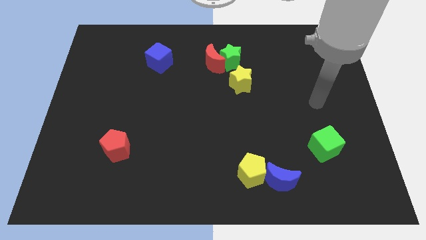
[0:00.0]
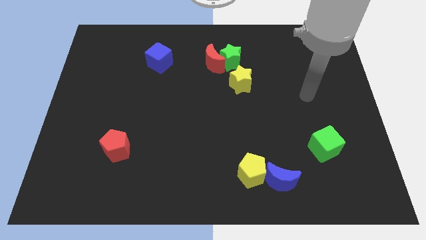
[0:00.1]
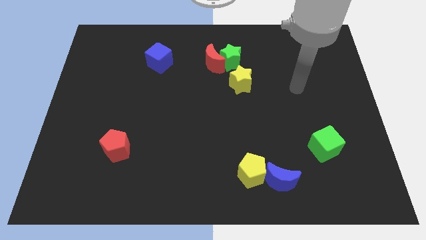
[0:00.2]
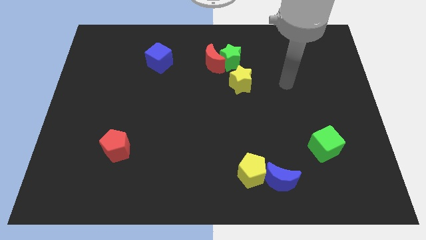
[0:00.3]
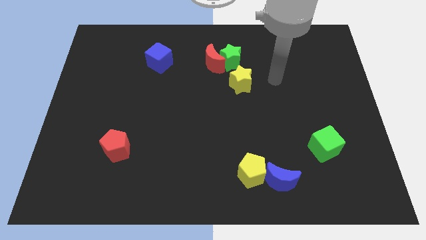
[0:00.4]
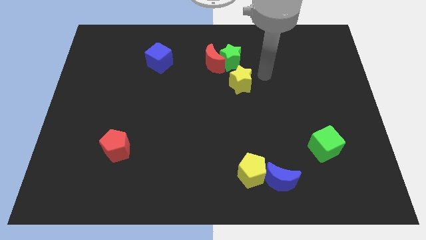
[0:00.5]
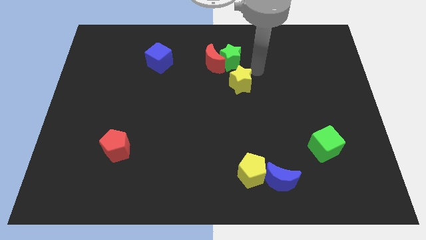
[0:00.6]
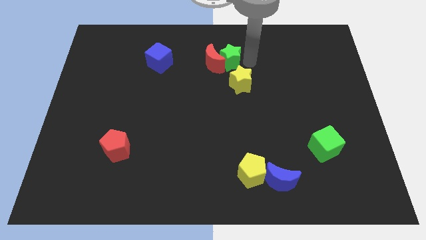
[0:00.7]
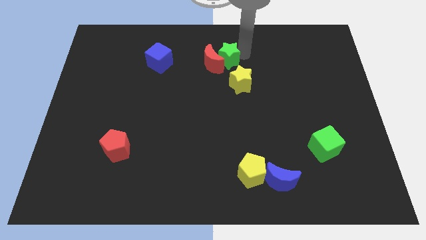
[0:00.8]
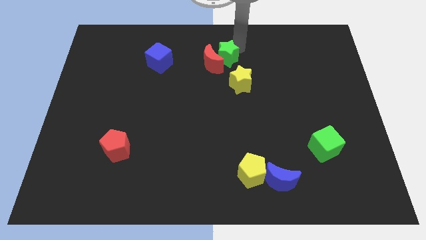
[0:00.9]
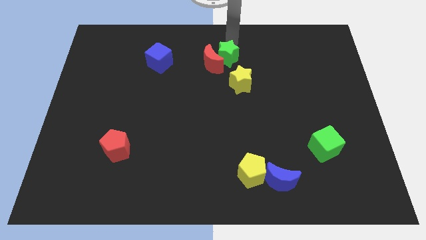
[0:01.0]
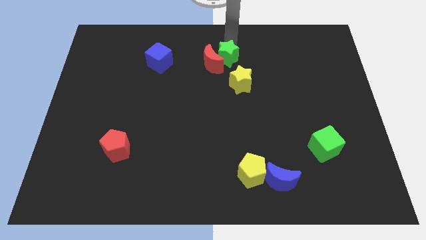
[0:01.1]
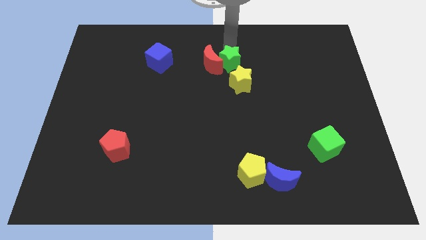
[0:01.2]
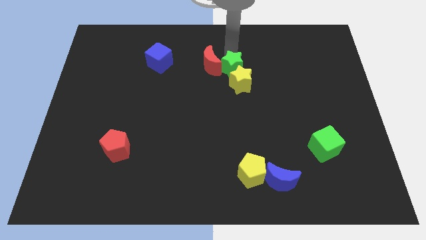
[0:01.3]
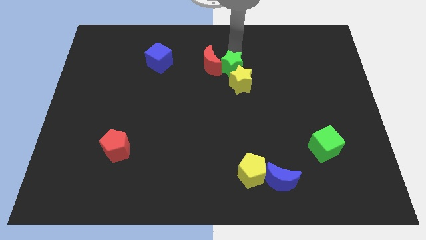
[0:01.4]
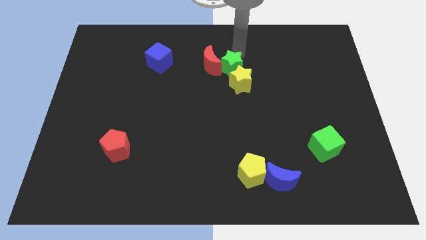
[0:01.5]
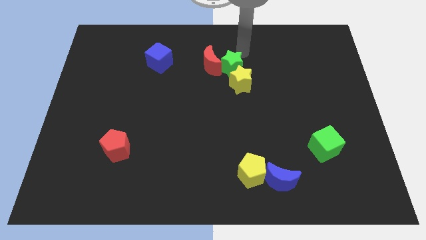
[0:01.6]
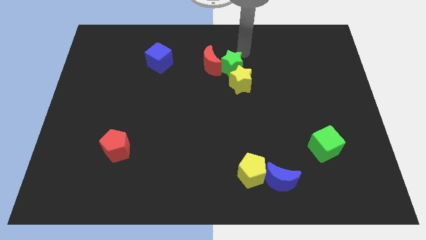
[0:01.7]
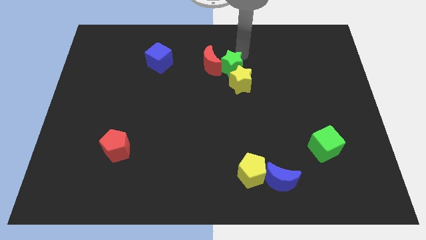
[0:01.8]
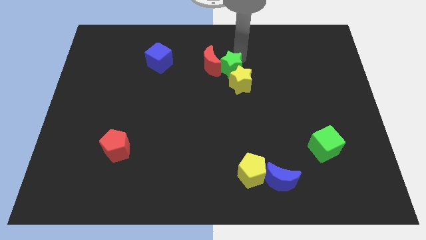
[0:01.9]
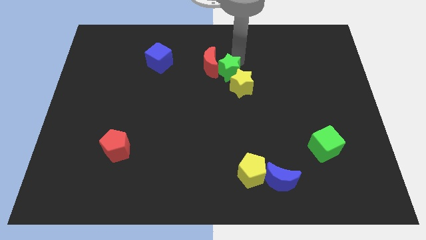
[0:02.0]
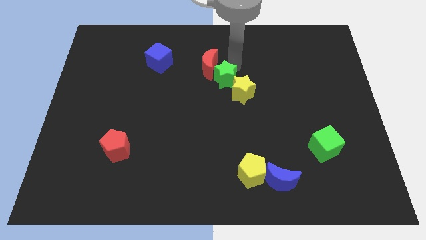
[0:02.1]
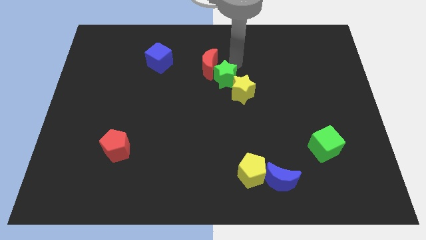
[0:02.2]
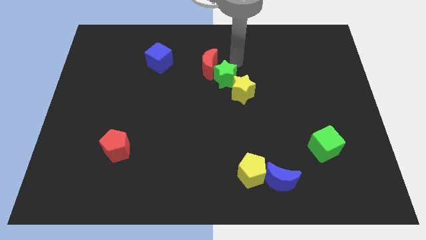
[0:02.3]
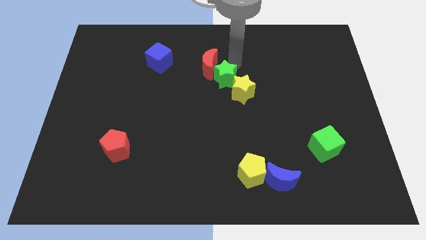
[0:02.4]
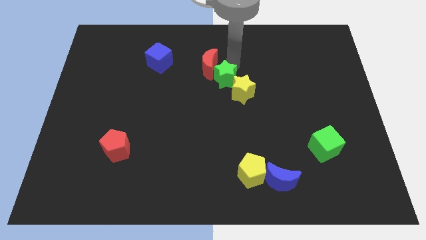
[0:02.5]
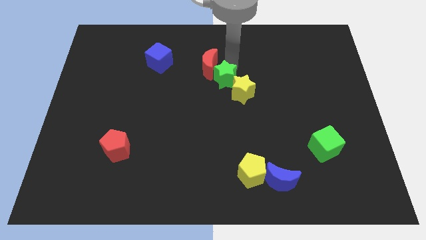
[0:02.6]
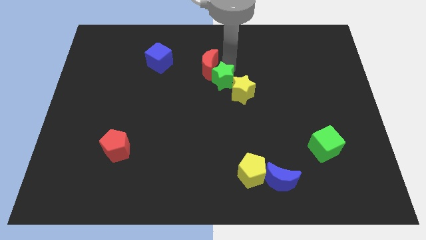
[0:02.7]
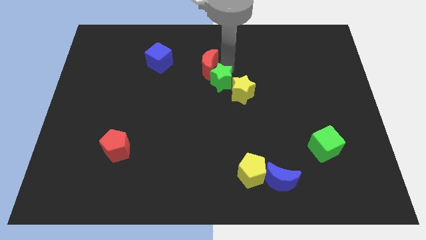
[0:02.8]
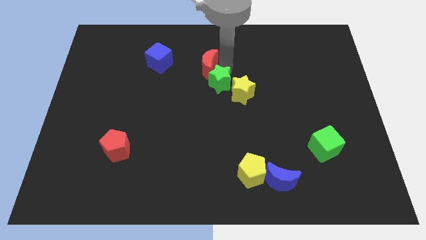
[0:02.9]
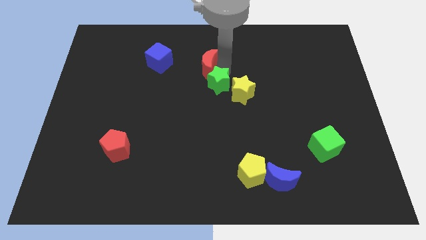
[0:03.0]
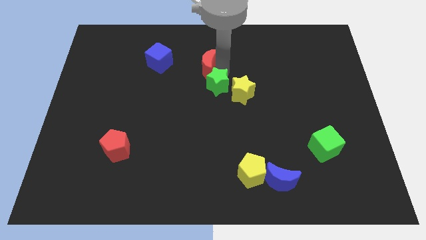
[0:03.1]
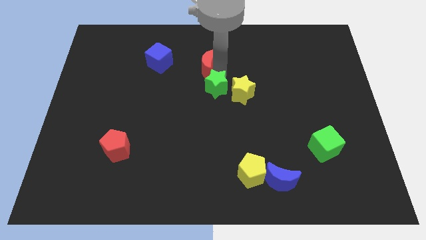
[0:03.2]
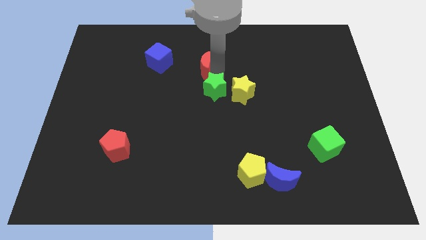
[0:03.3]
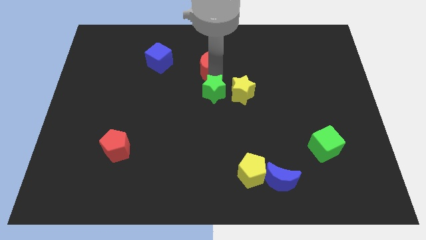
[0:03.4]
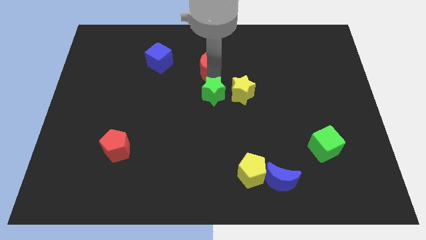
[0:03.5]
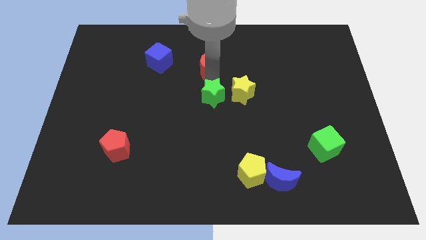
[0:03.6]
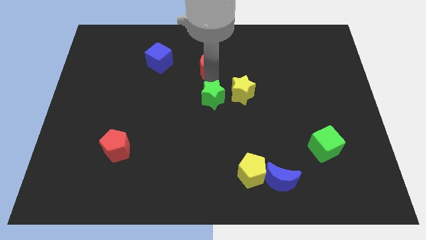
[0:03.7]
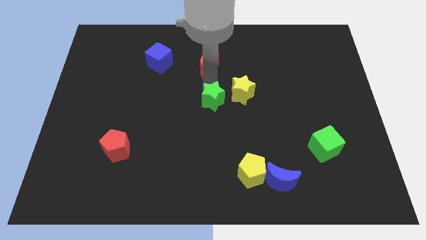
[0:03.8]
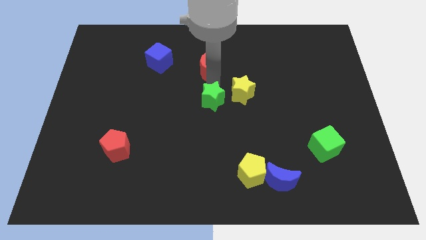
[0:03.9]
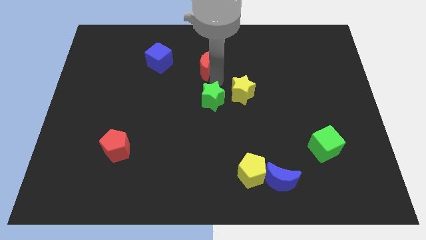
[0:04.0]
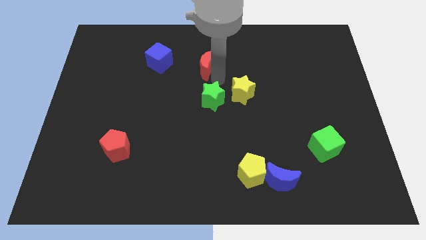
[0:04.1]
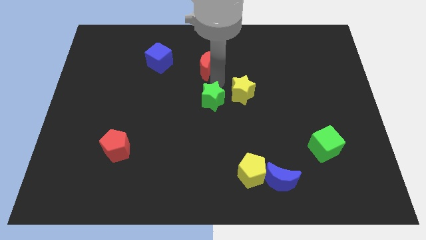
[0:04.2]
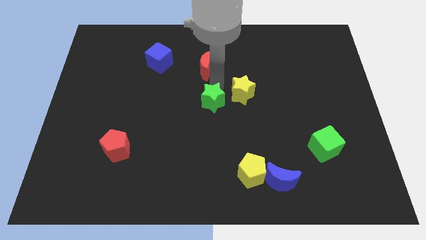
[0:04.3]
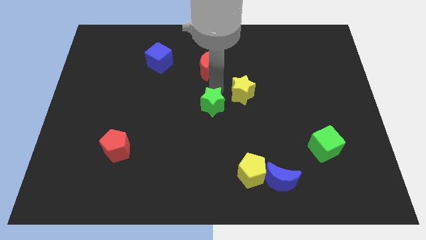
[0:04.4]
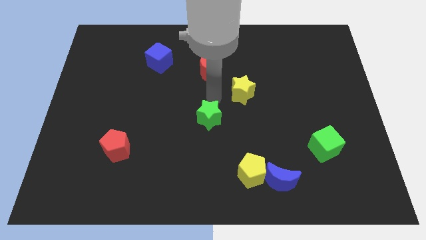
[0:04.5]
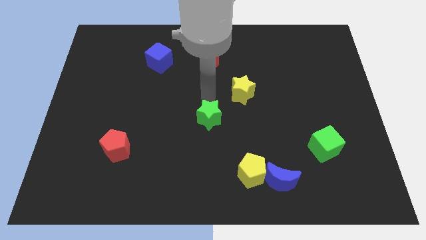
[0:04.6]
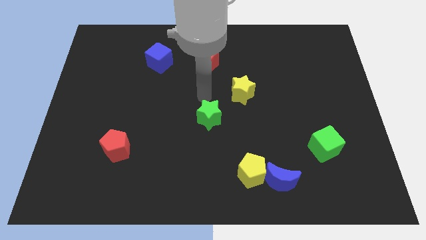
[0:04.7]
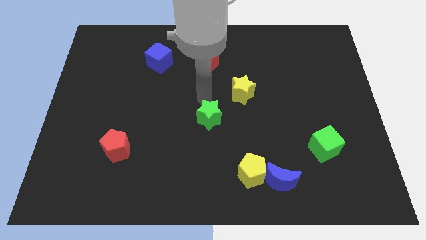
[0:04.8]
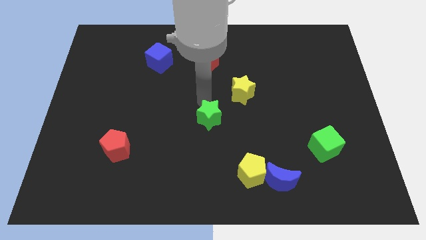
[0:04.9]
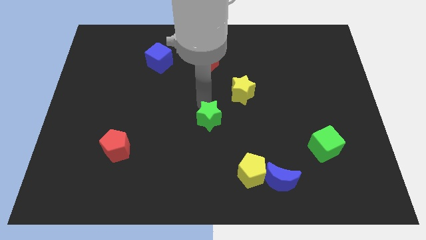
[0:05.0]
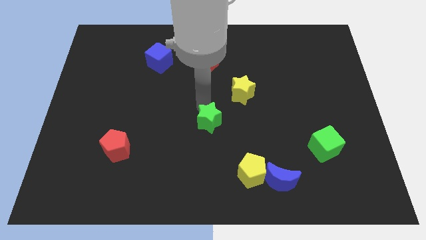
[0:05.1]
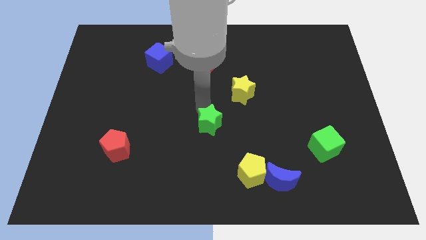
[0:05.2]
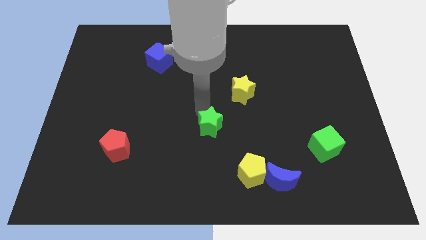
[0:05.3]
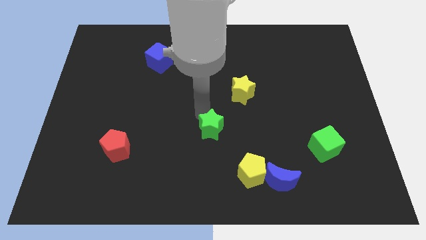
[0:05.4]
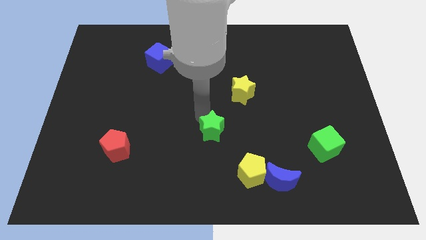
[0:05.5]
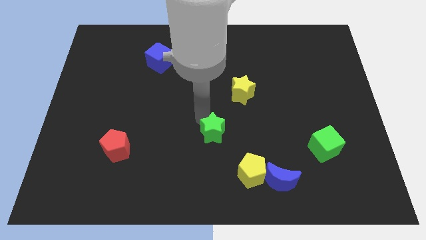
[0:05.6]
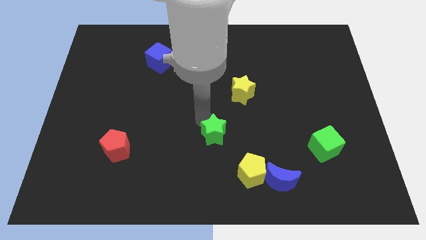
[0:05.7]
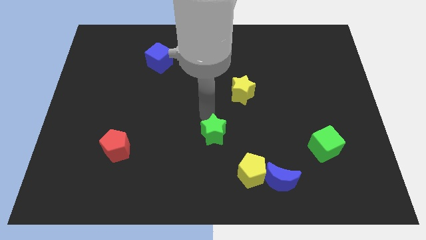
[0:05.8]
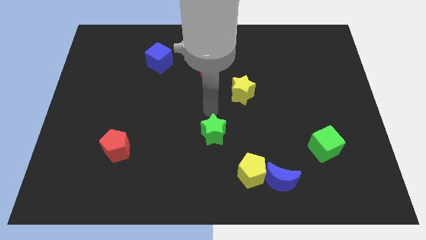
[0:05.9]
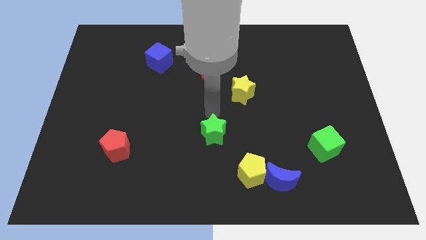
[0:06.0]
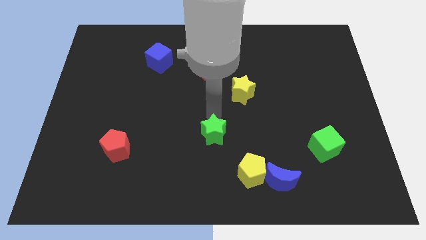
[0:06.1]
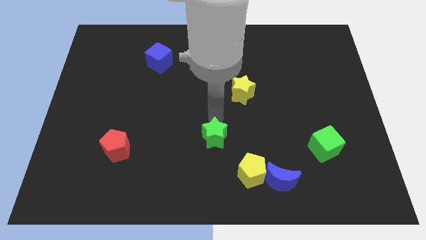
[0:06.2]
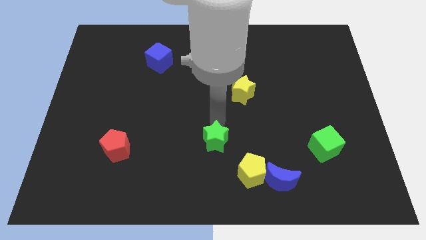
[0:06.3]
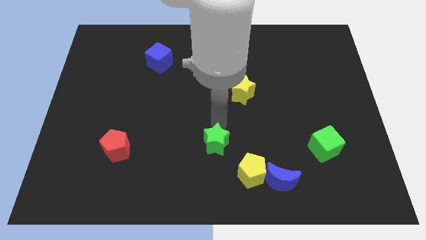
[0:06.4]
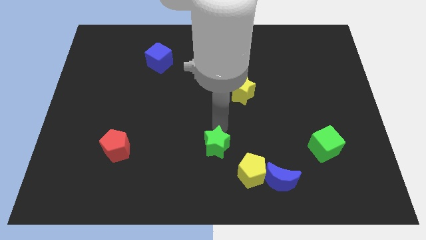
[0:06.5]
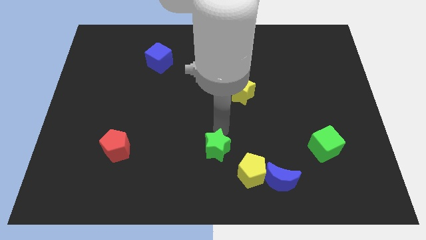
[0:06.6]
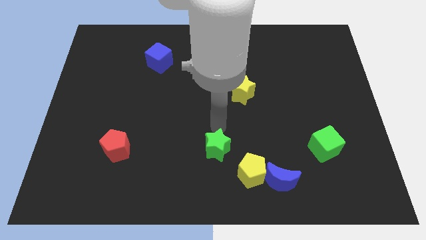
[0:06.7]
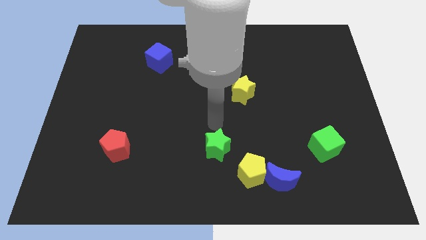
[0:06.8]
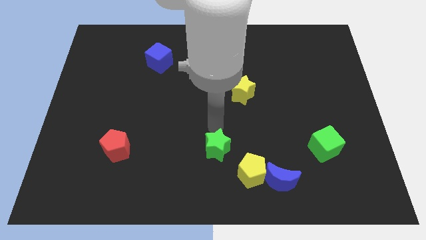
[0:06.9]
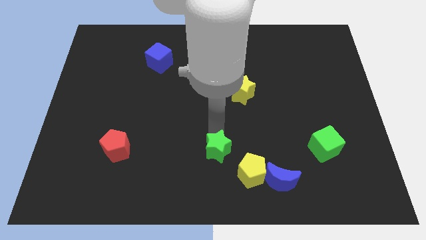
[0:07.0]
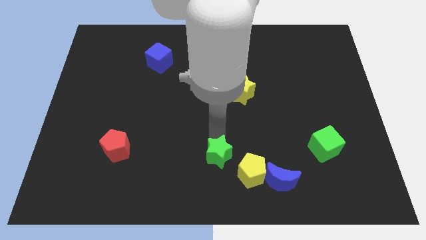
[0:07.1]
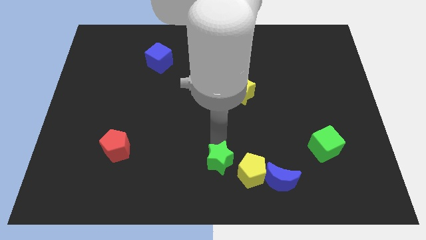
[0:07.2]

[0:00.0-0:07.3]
put the green star to the left side of the blue moon
